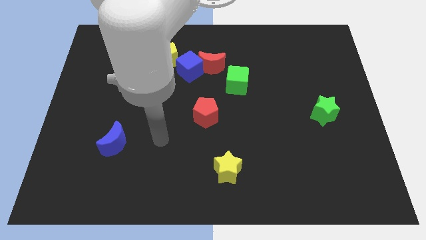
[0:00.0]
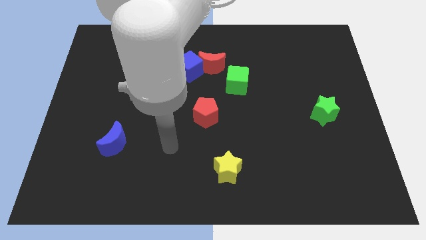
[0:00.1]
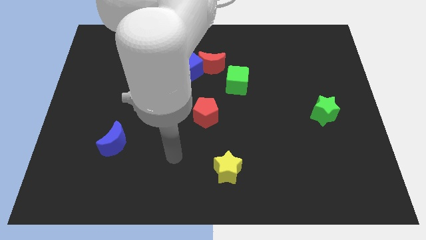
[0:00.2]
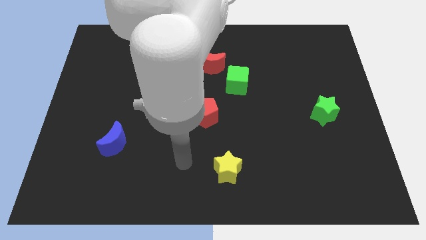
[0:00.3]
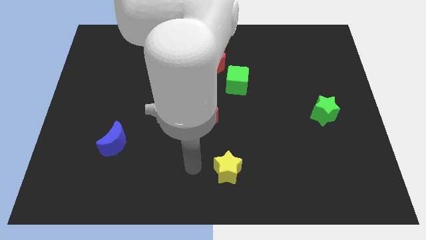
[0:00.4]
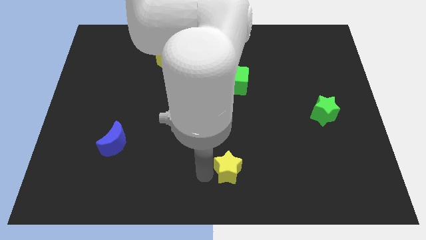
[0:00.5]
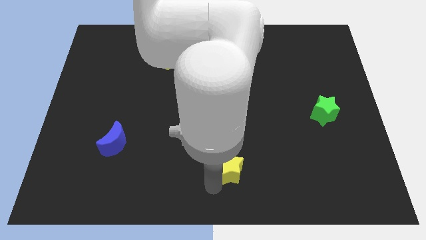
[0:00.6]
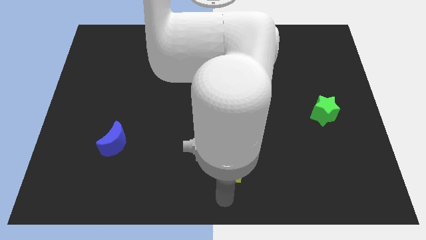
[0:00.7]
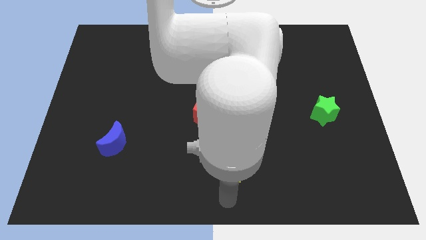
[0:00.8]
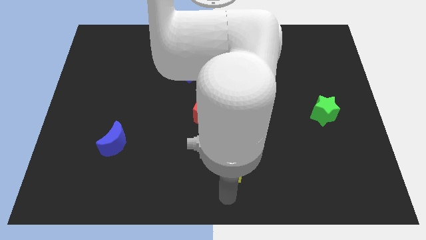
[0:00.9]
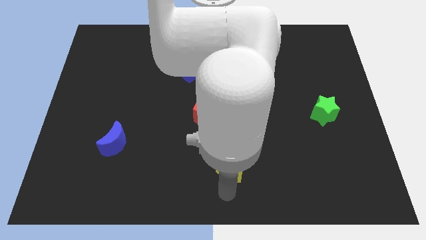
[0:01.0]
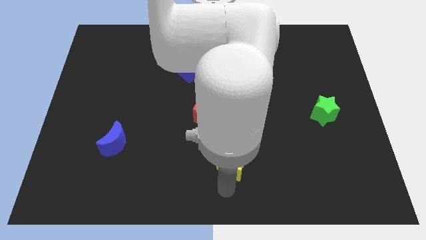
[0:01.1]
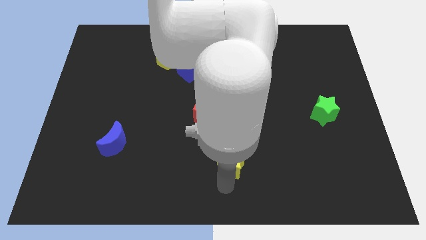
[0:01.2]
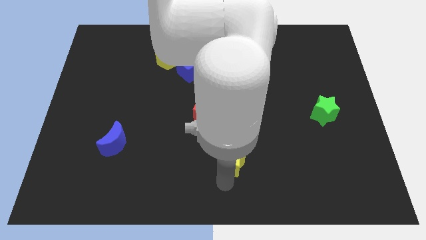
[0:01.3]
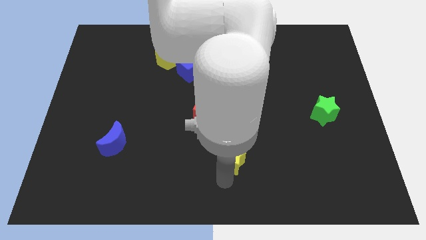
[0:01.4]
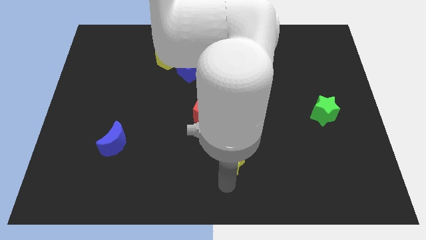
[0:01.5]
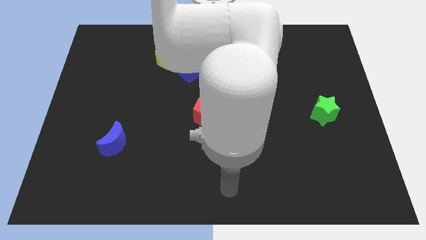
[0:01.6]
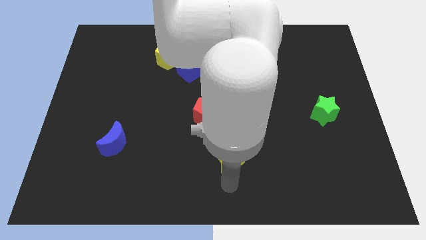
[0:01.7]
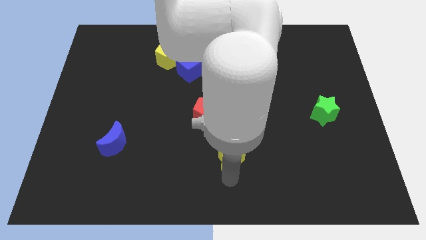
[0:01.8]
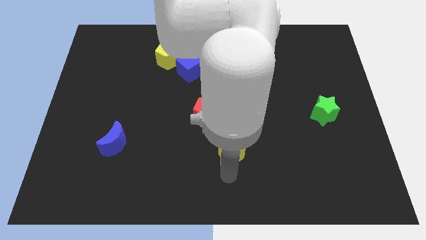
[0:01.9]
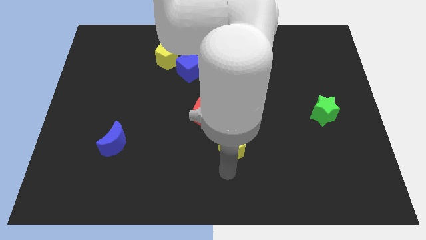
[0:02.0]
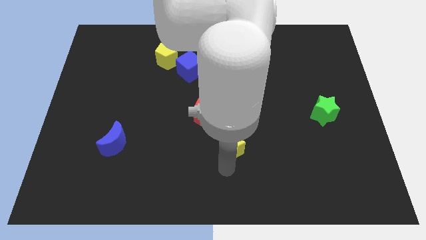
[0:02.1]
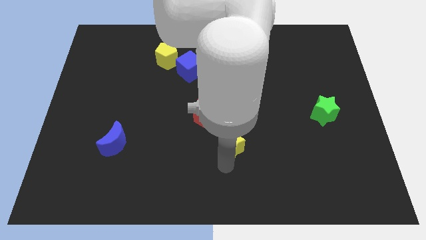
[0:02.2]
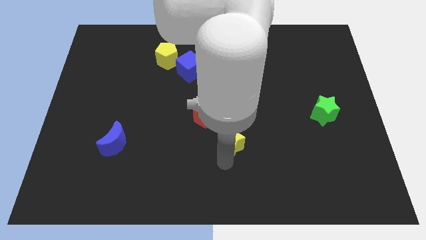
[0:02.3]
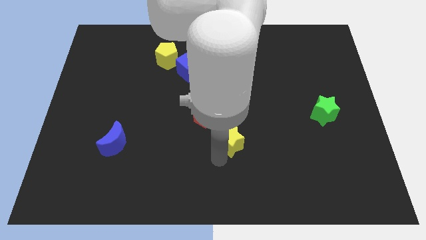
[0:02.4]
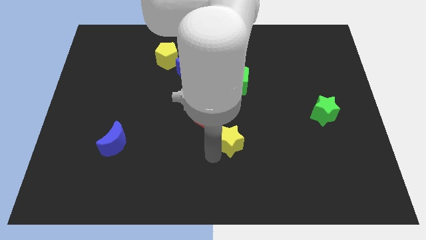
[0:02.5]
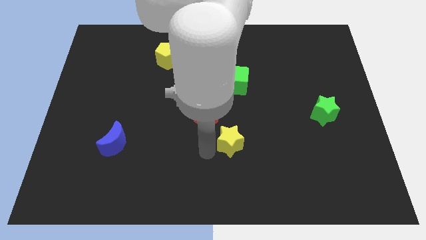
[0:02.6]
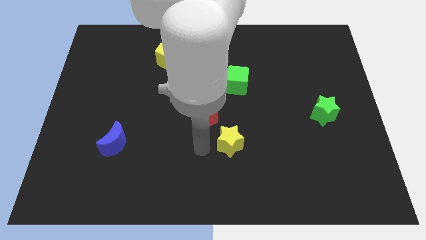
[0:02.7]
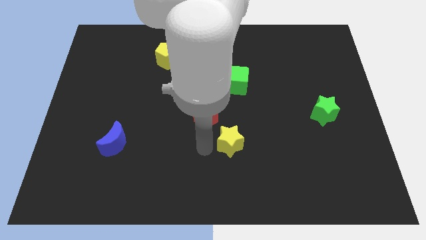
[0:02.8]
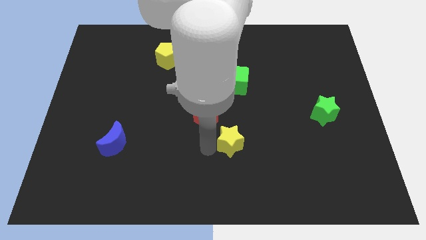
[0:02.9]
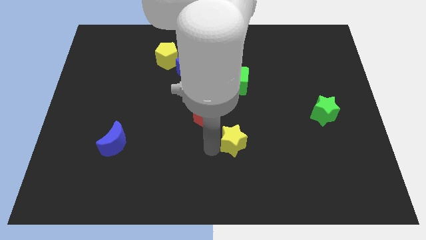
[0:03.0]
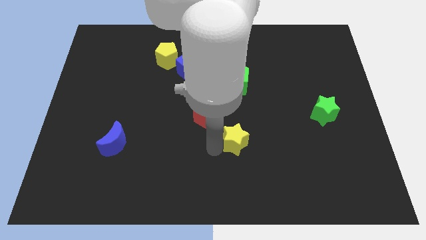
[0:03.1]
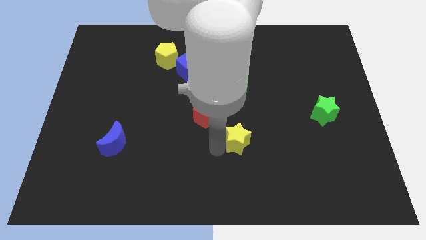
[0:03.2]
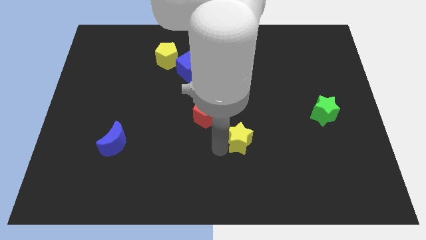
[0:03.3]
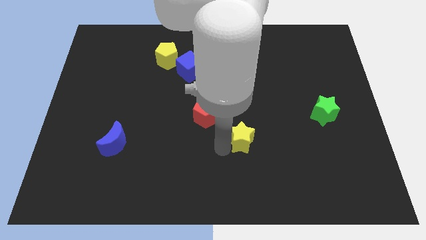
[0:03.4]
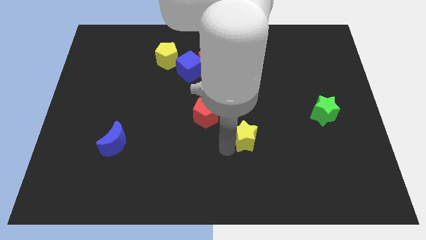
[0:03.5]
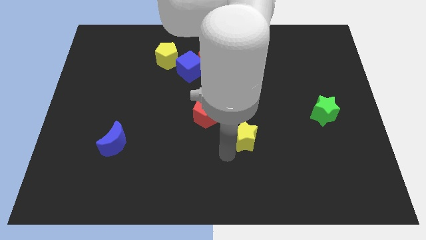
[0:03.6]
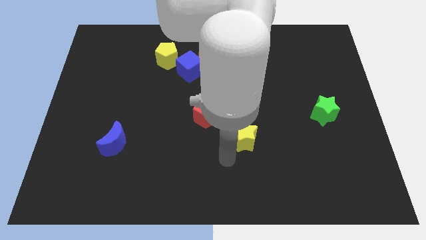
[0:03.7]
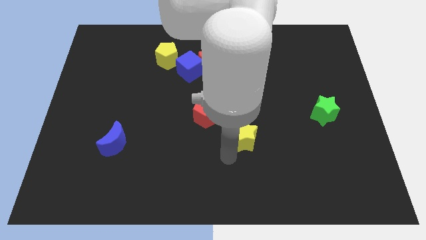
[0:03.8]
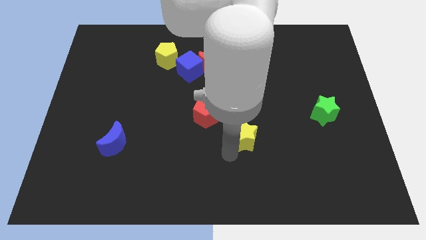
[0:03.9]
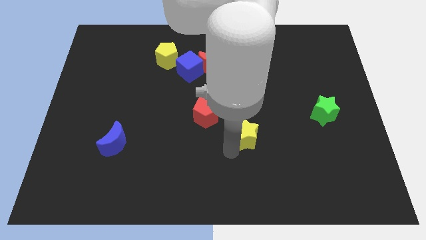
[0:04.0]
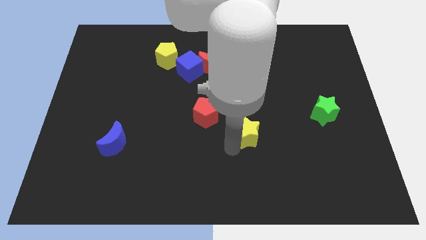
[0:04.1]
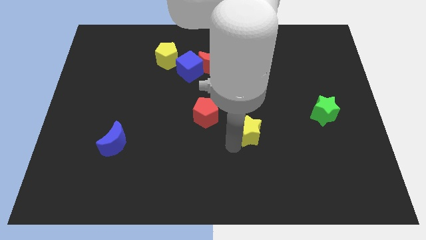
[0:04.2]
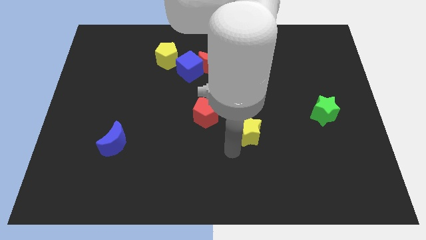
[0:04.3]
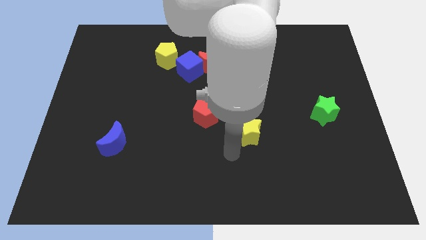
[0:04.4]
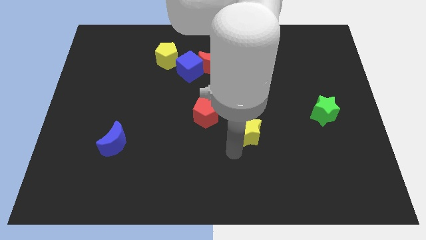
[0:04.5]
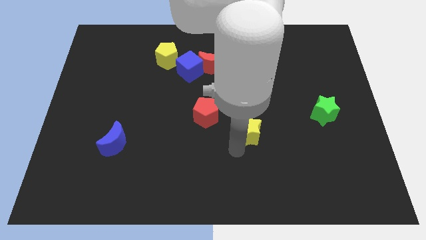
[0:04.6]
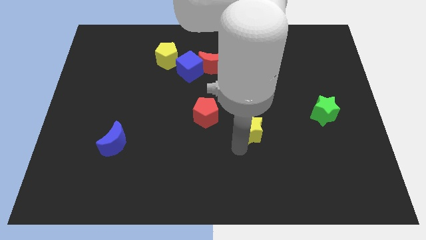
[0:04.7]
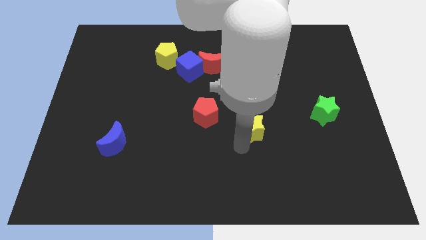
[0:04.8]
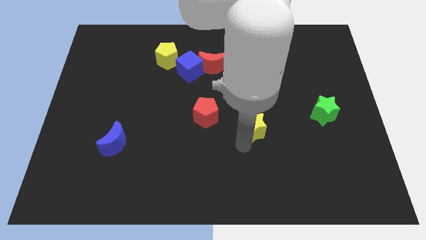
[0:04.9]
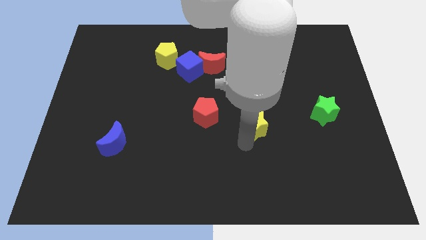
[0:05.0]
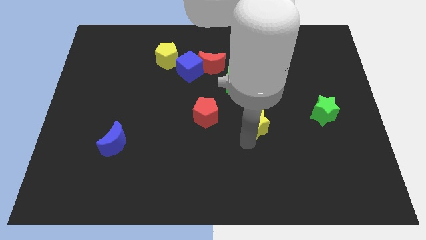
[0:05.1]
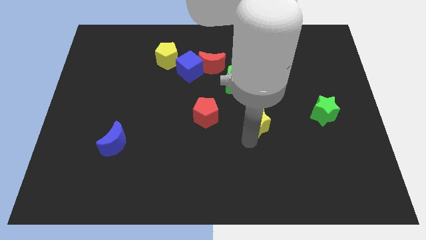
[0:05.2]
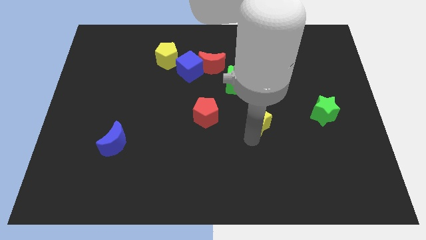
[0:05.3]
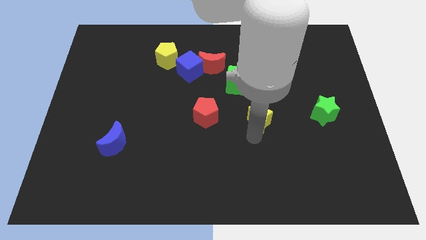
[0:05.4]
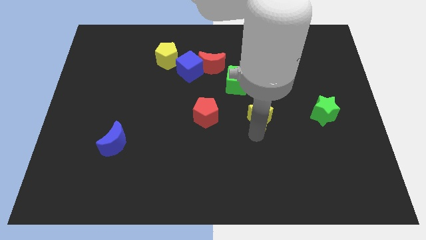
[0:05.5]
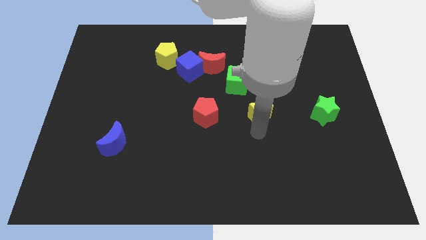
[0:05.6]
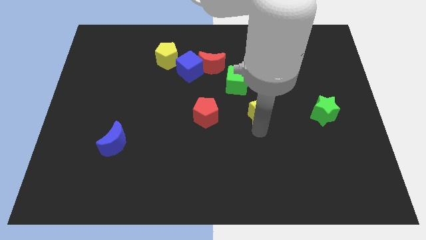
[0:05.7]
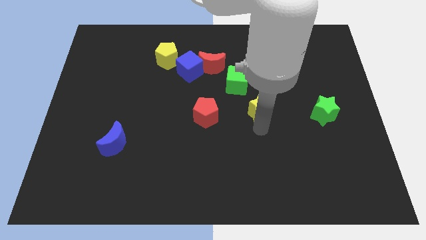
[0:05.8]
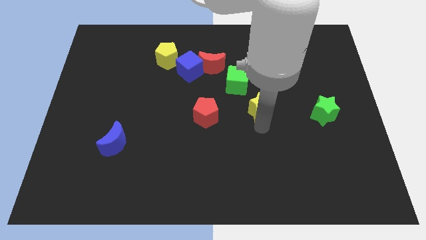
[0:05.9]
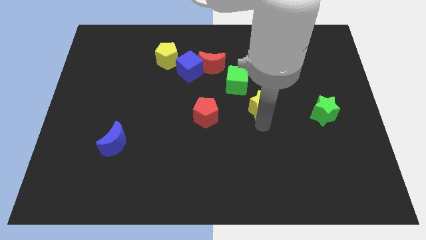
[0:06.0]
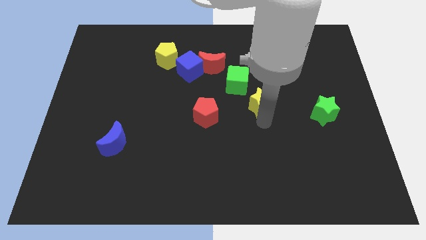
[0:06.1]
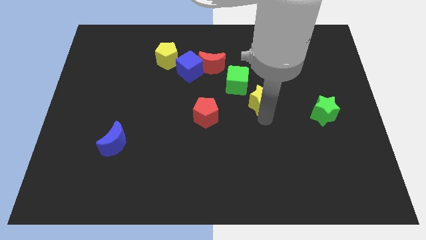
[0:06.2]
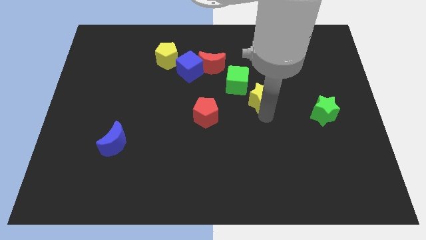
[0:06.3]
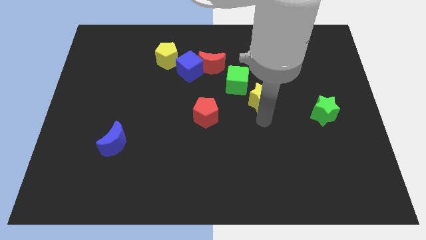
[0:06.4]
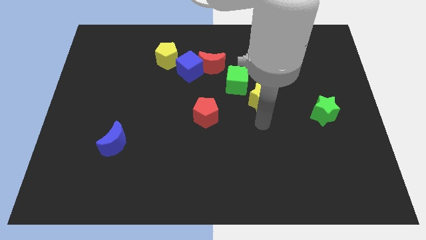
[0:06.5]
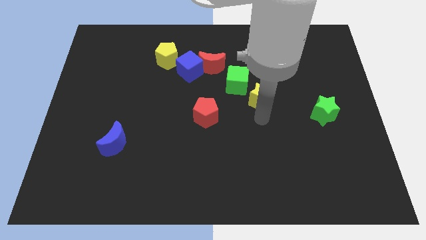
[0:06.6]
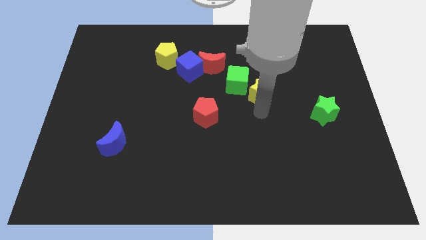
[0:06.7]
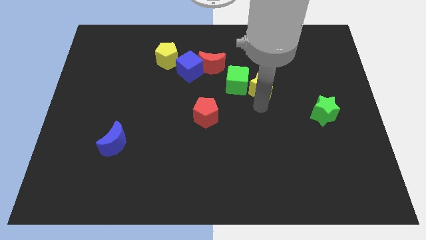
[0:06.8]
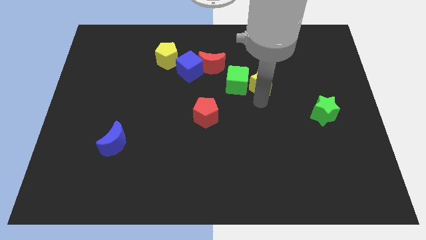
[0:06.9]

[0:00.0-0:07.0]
move the yellow star upwards

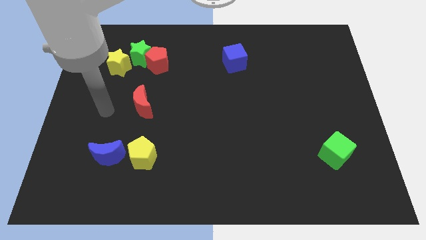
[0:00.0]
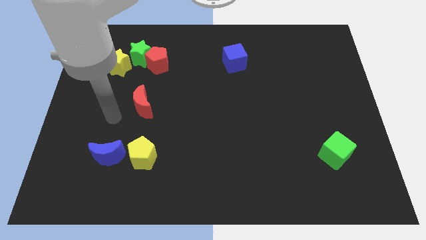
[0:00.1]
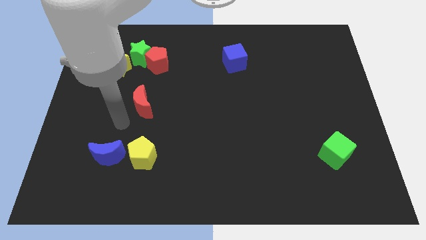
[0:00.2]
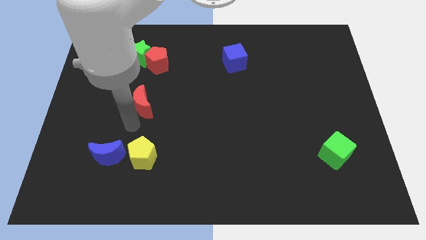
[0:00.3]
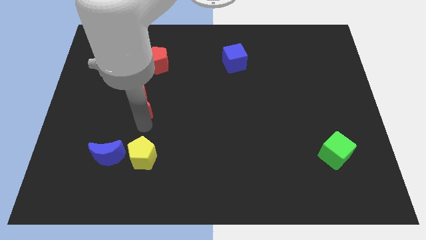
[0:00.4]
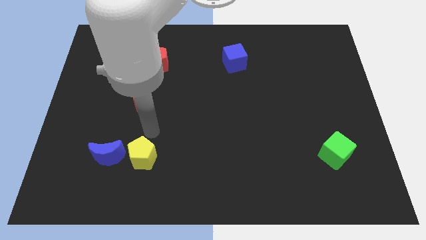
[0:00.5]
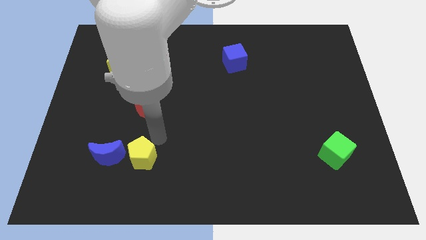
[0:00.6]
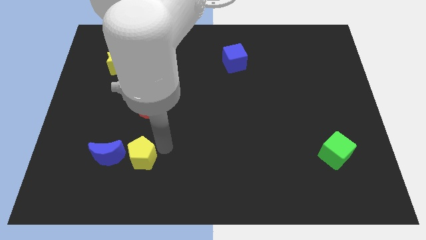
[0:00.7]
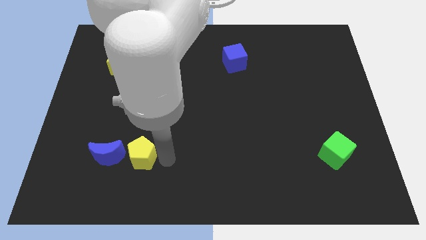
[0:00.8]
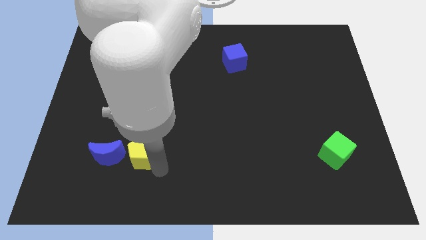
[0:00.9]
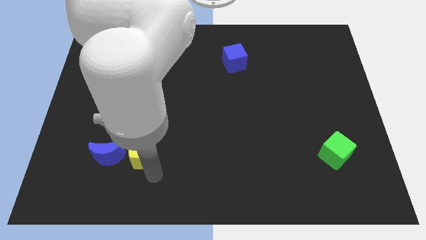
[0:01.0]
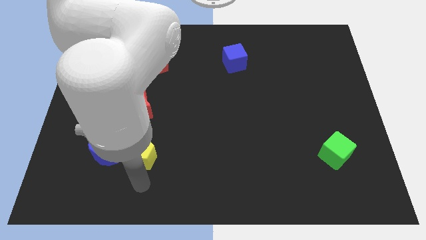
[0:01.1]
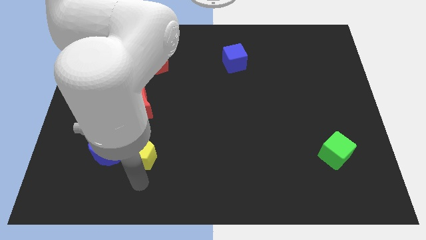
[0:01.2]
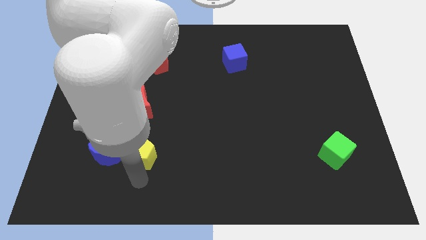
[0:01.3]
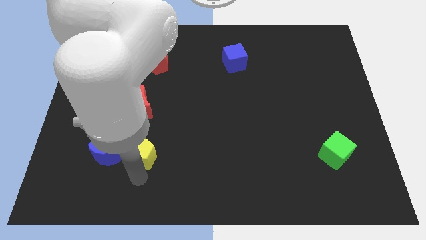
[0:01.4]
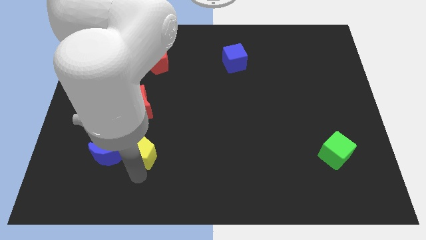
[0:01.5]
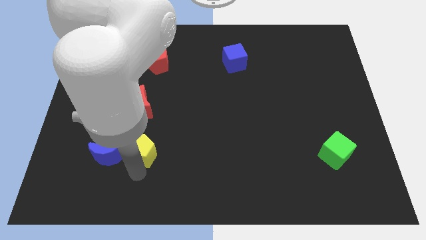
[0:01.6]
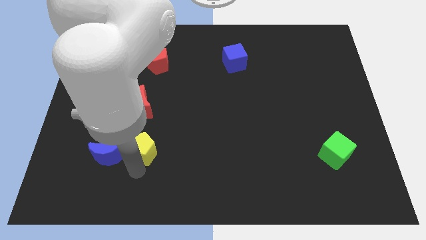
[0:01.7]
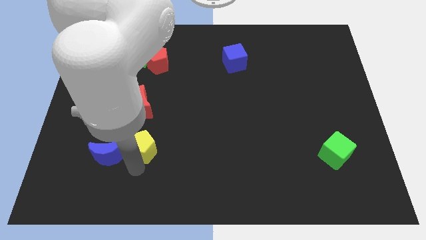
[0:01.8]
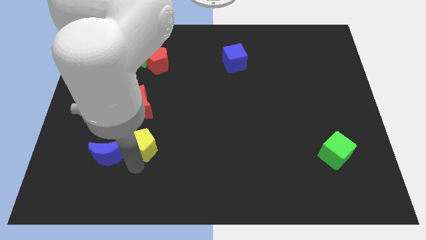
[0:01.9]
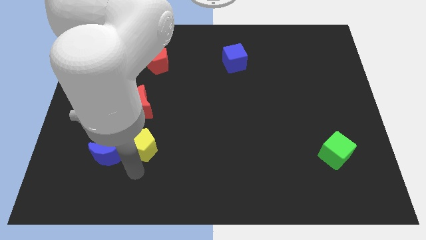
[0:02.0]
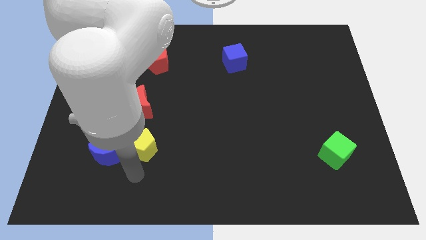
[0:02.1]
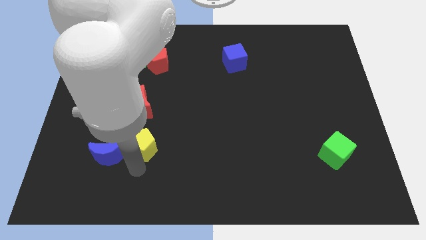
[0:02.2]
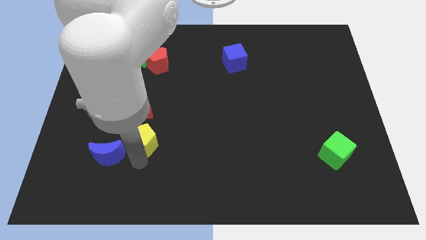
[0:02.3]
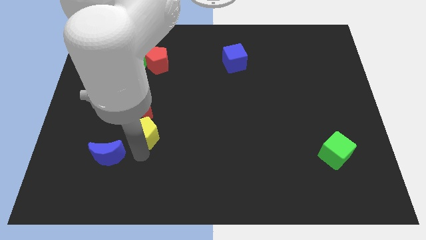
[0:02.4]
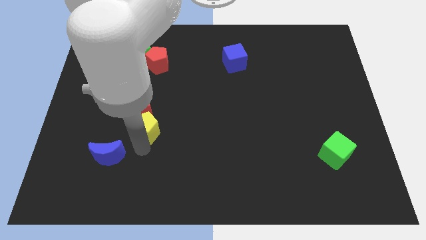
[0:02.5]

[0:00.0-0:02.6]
move the yellow pentagon a little up
